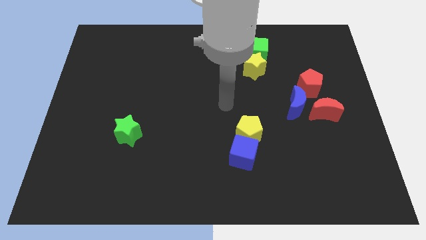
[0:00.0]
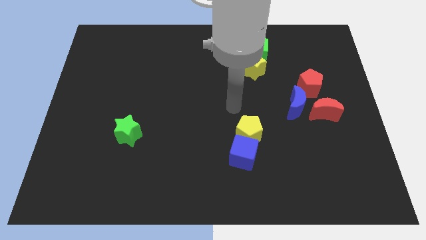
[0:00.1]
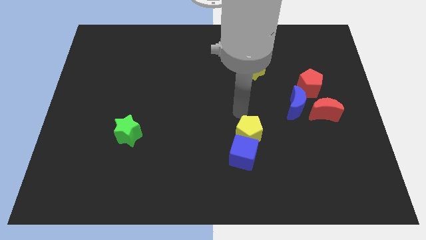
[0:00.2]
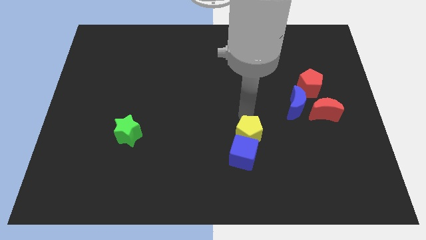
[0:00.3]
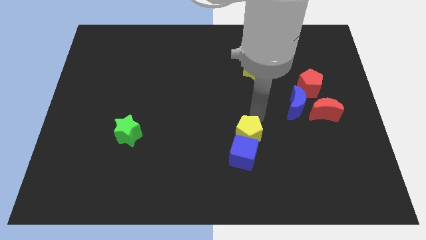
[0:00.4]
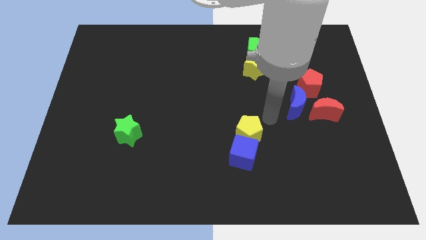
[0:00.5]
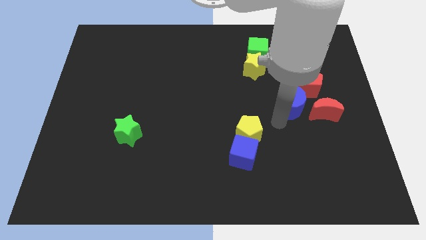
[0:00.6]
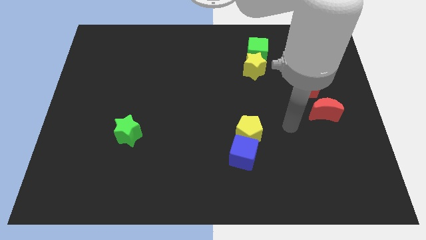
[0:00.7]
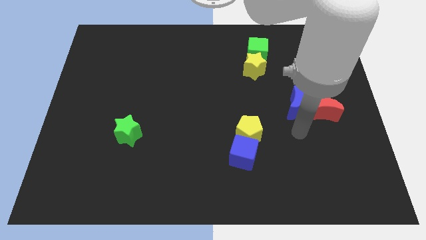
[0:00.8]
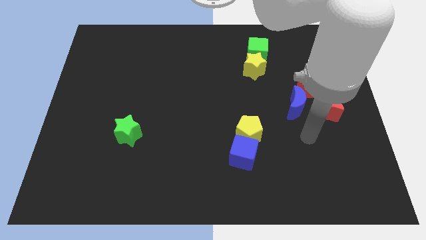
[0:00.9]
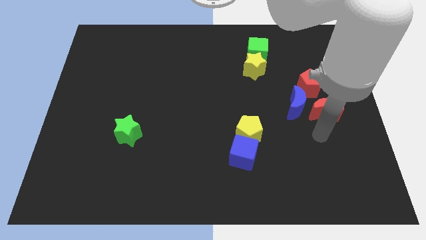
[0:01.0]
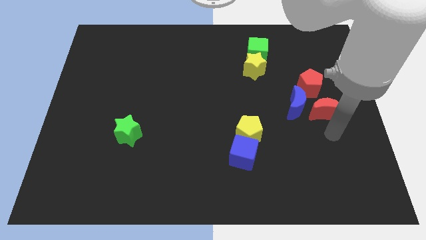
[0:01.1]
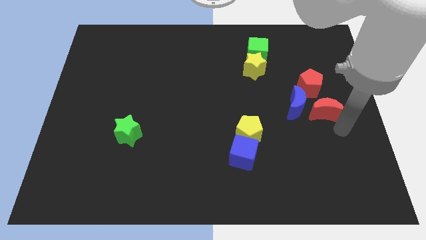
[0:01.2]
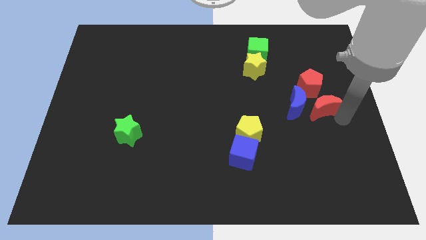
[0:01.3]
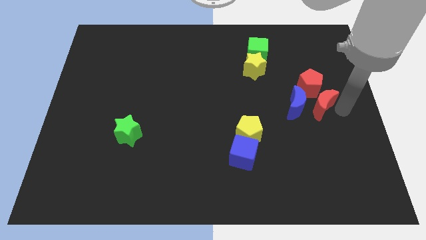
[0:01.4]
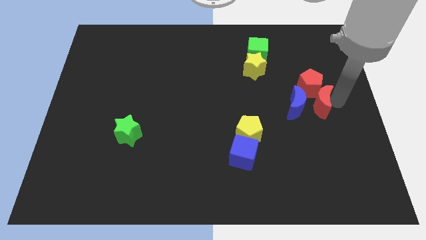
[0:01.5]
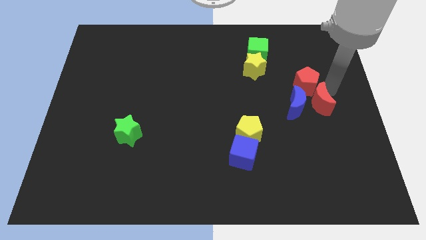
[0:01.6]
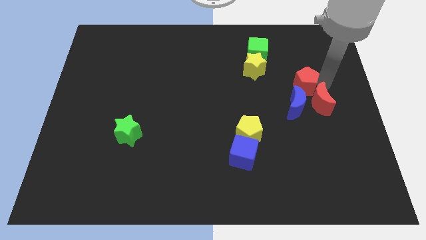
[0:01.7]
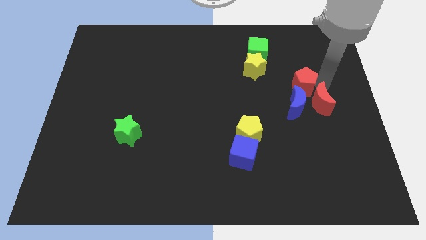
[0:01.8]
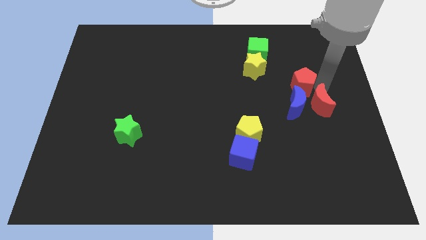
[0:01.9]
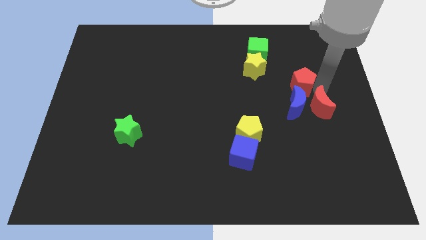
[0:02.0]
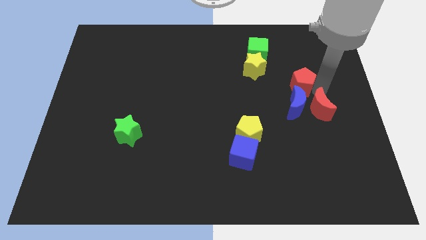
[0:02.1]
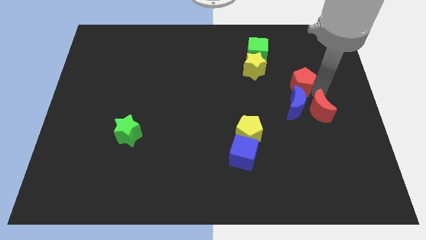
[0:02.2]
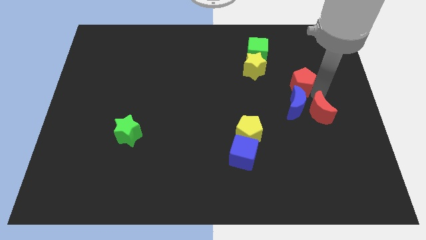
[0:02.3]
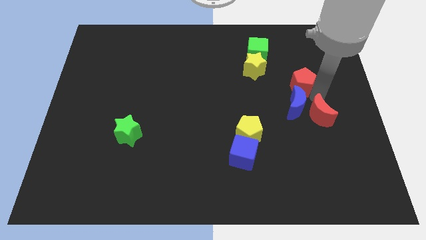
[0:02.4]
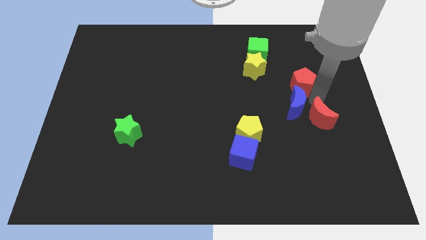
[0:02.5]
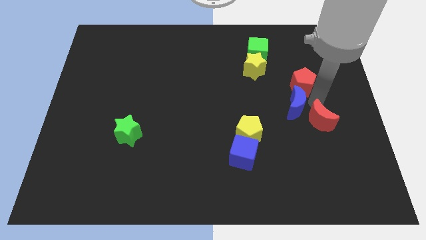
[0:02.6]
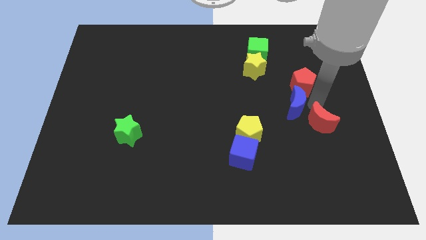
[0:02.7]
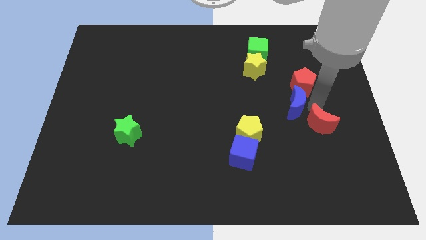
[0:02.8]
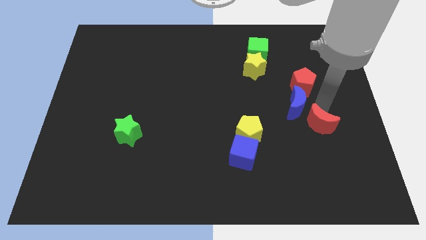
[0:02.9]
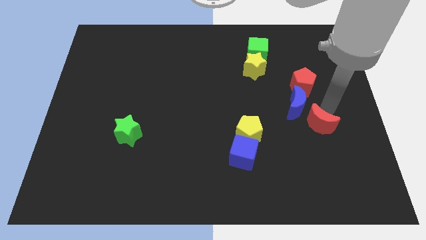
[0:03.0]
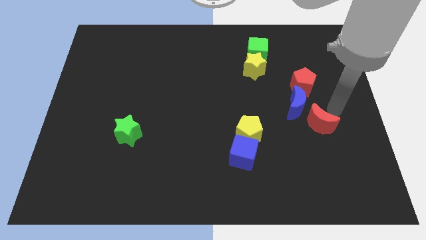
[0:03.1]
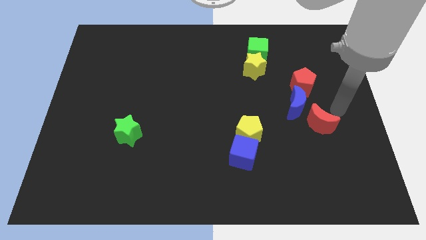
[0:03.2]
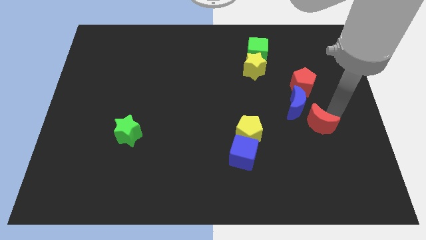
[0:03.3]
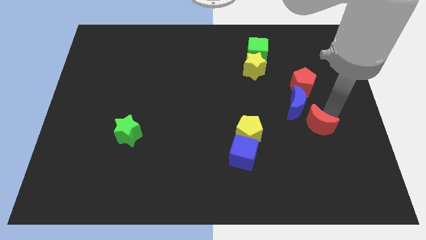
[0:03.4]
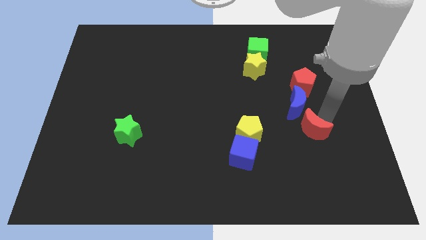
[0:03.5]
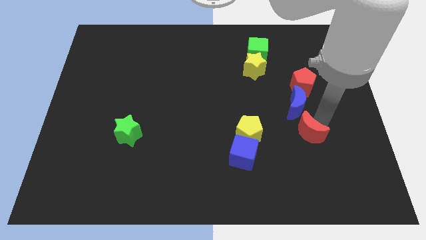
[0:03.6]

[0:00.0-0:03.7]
slide the red moon somewhat down and to the left

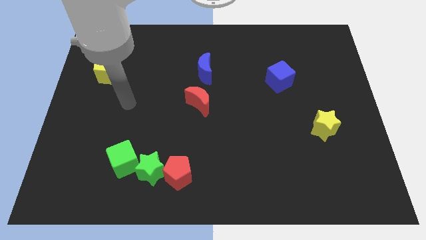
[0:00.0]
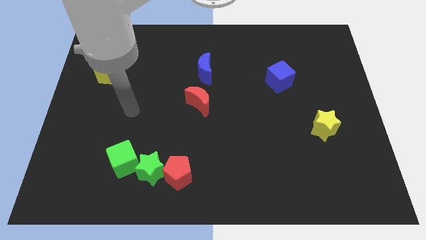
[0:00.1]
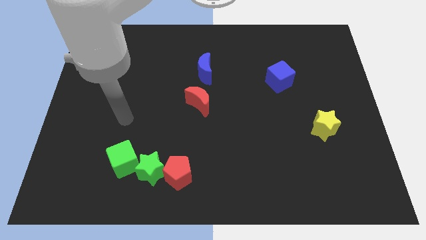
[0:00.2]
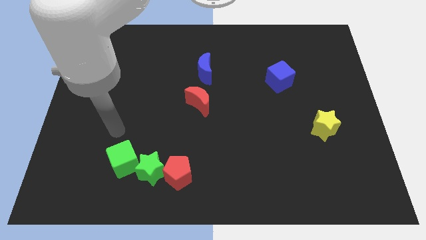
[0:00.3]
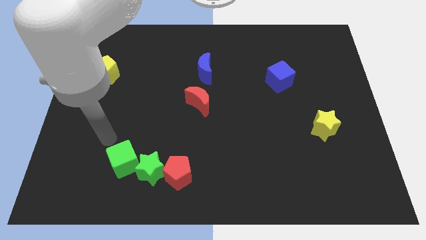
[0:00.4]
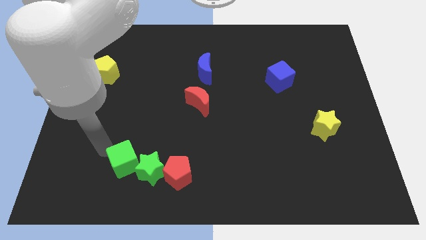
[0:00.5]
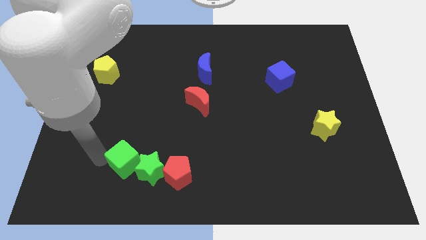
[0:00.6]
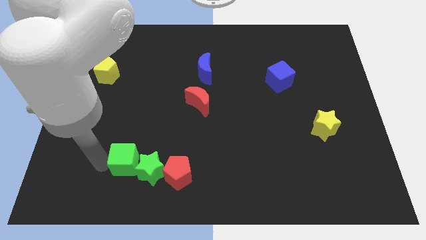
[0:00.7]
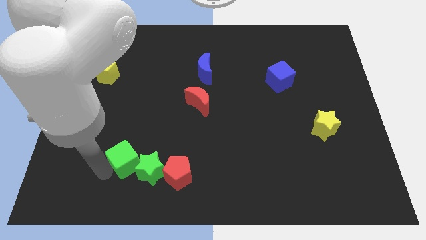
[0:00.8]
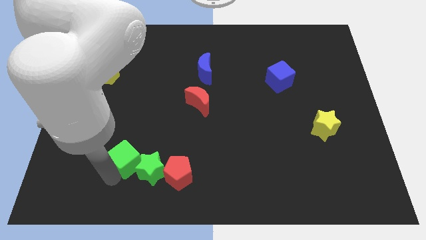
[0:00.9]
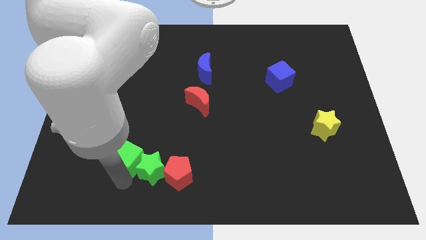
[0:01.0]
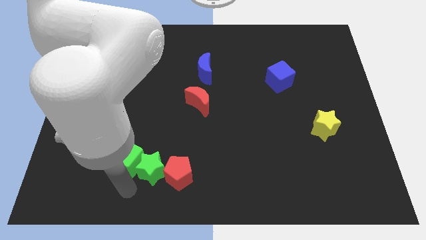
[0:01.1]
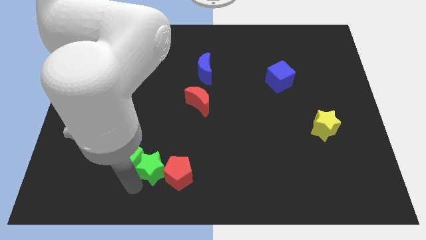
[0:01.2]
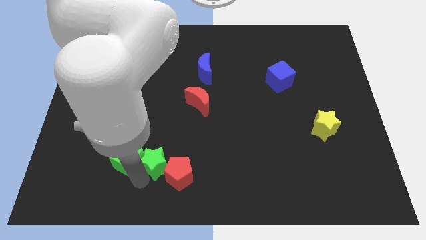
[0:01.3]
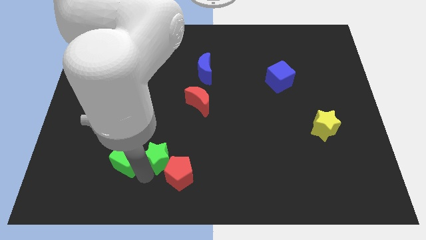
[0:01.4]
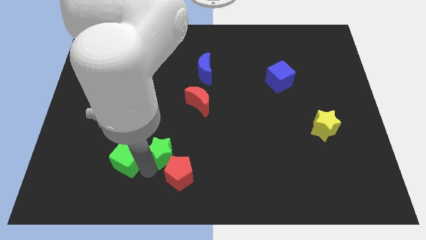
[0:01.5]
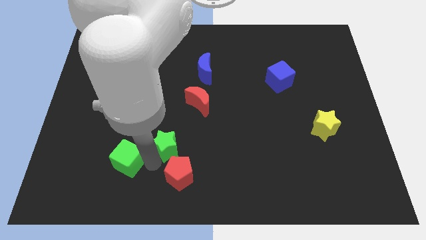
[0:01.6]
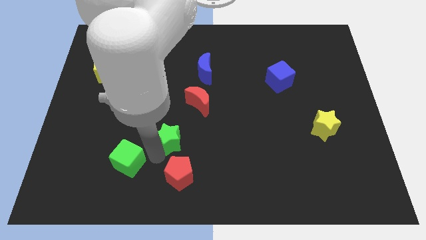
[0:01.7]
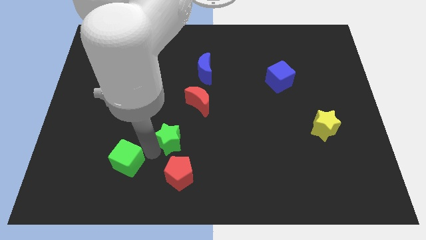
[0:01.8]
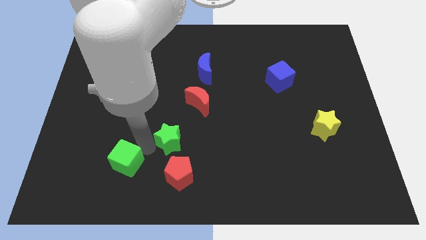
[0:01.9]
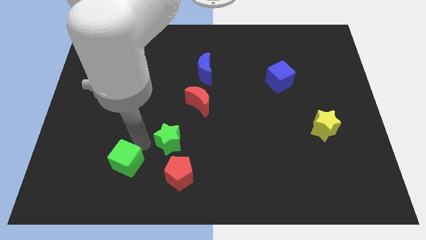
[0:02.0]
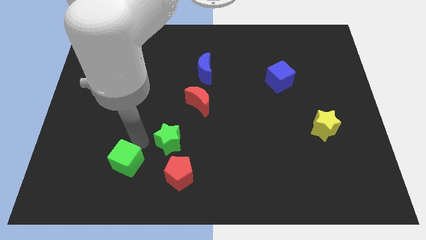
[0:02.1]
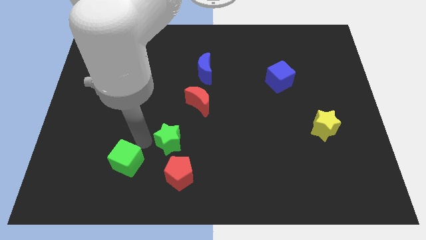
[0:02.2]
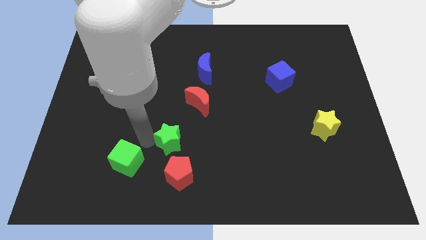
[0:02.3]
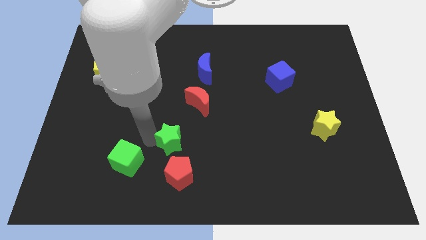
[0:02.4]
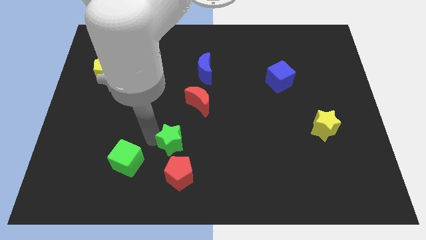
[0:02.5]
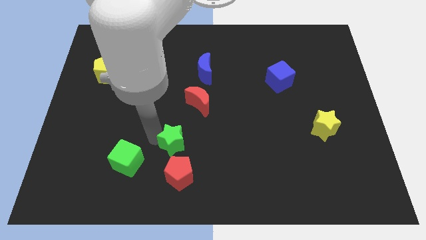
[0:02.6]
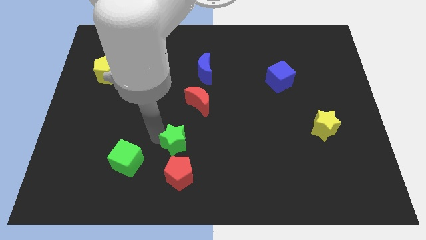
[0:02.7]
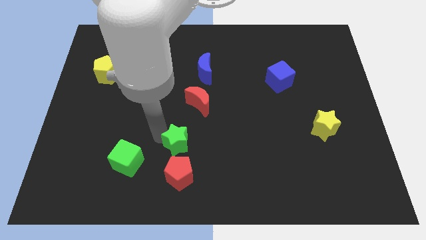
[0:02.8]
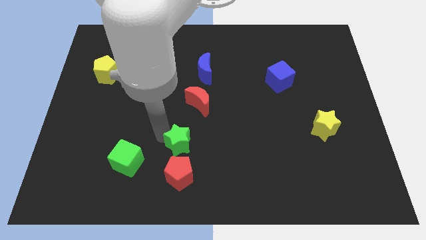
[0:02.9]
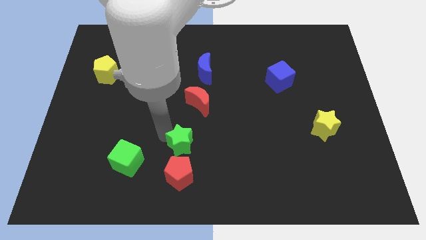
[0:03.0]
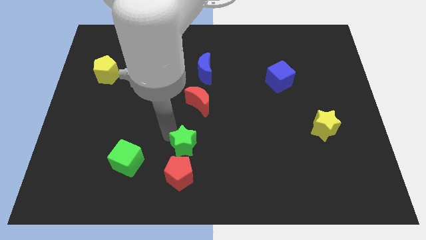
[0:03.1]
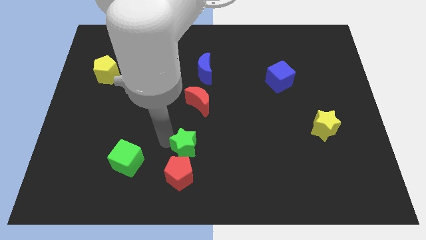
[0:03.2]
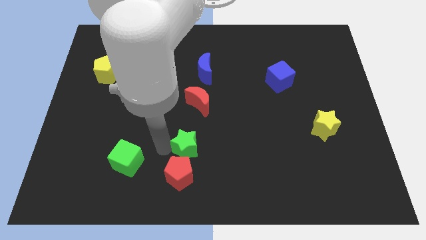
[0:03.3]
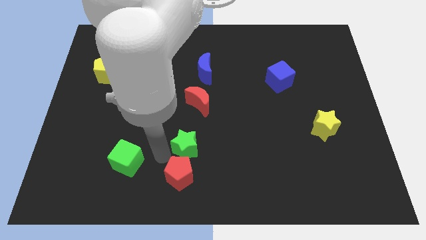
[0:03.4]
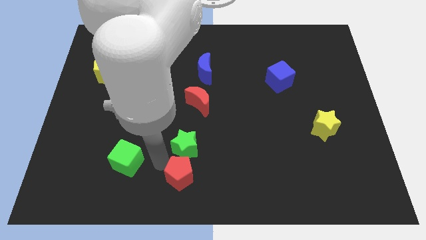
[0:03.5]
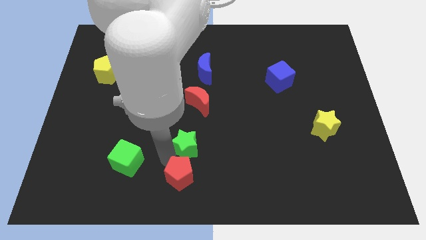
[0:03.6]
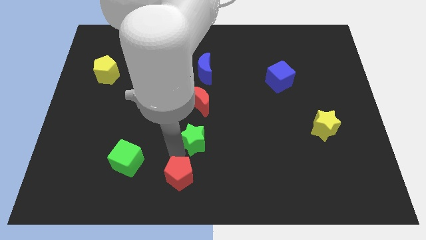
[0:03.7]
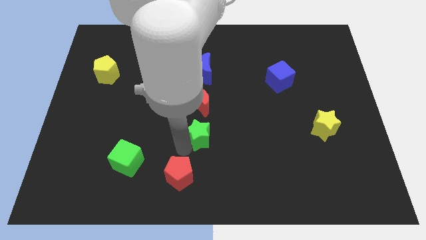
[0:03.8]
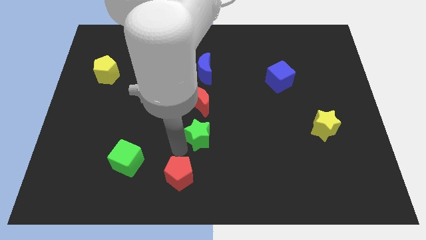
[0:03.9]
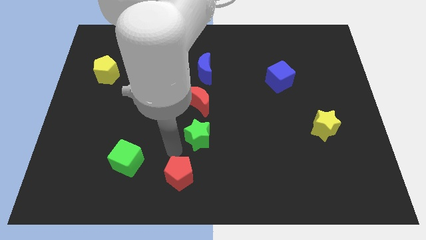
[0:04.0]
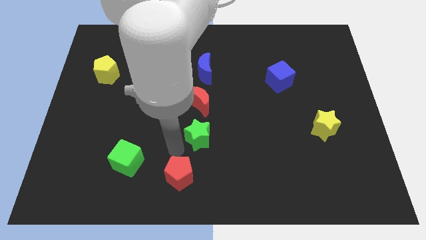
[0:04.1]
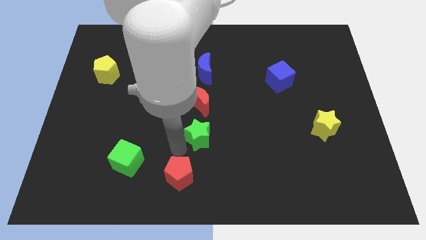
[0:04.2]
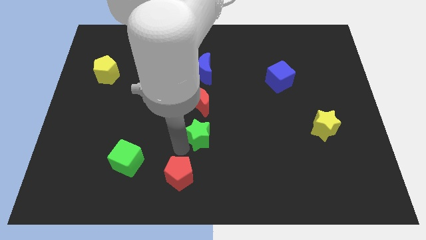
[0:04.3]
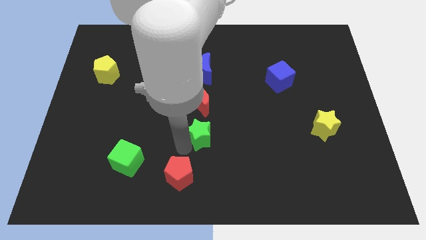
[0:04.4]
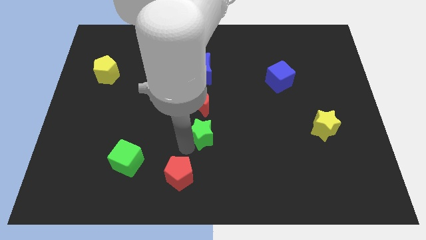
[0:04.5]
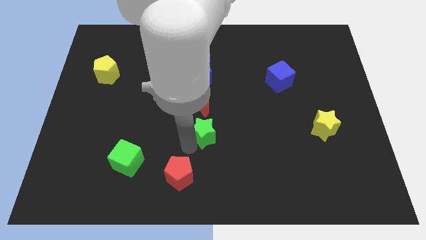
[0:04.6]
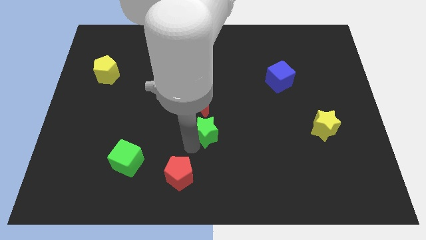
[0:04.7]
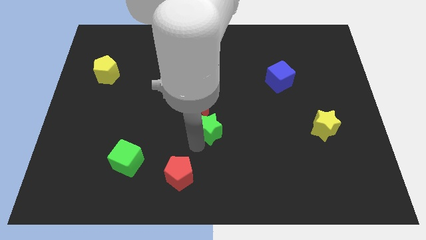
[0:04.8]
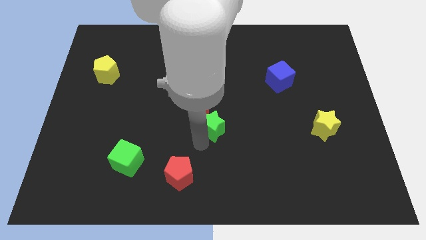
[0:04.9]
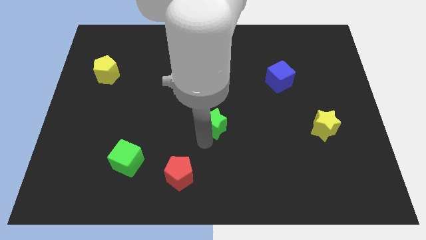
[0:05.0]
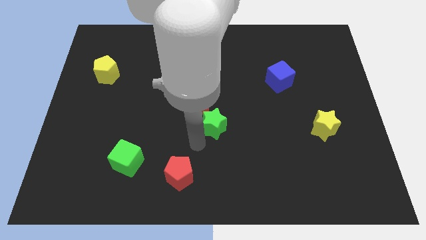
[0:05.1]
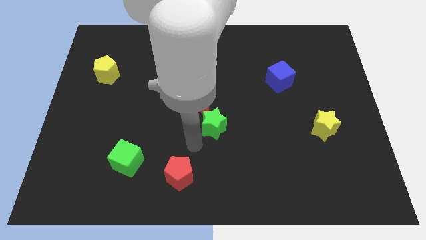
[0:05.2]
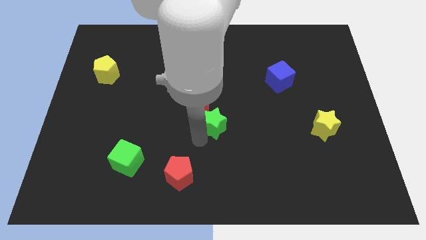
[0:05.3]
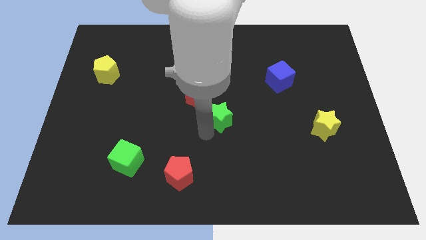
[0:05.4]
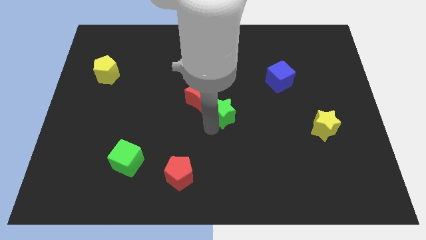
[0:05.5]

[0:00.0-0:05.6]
slide the green star diagonally up and right
